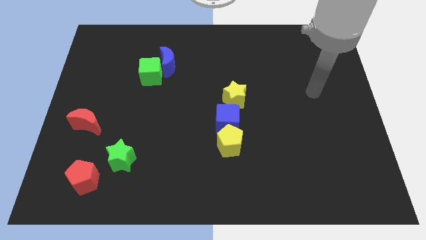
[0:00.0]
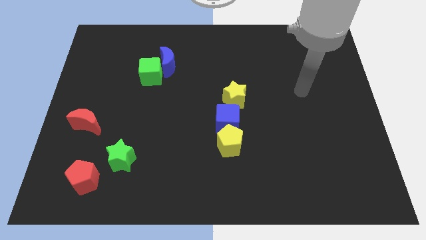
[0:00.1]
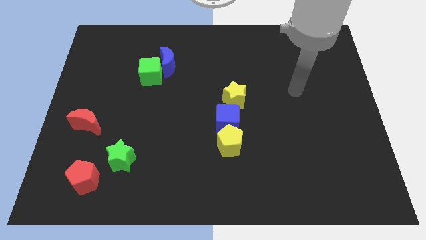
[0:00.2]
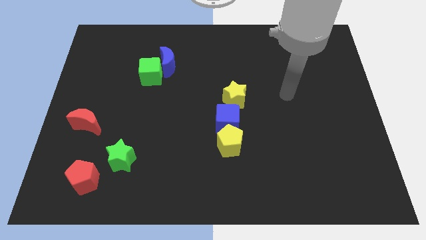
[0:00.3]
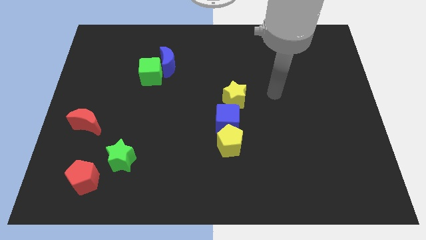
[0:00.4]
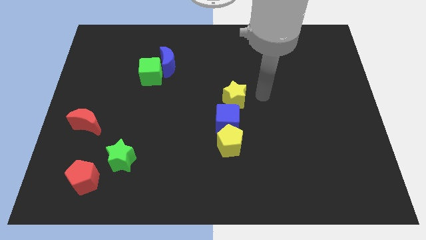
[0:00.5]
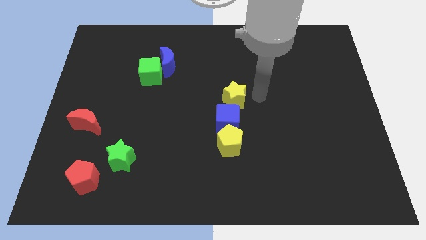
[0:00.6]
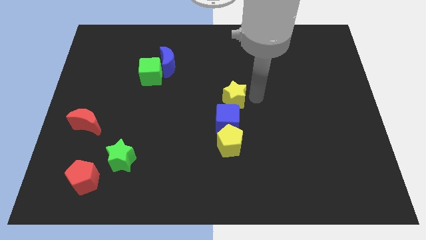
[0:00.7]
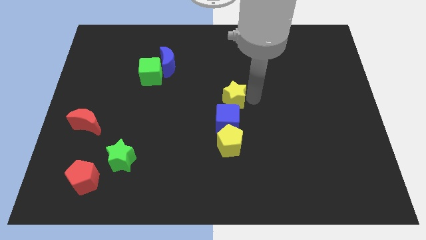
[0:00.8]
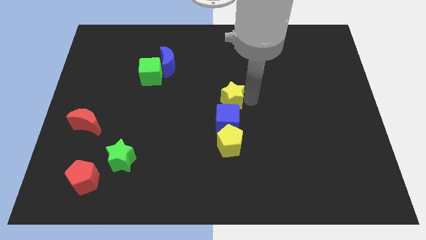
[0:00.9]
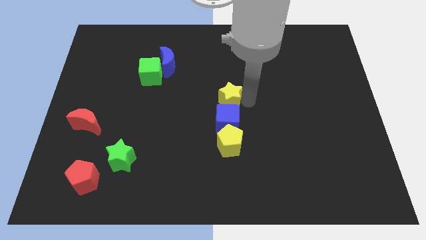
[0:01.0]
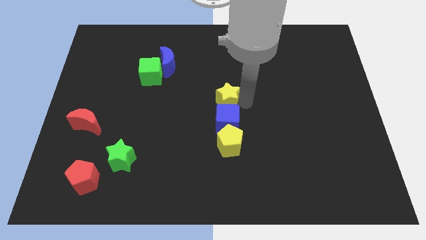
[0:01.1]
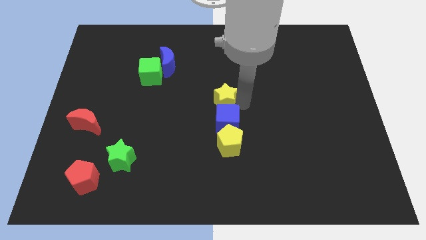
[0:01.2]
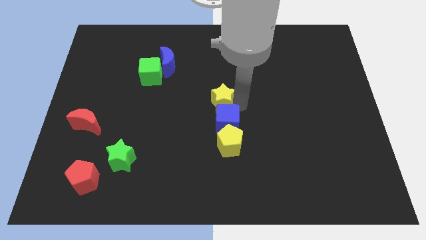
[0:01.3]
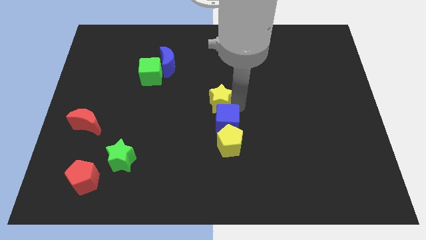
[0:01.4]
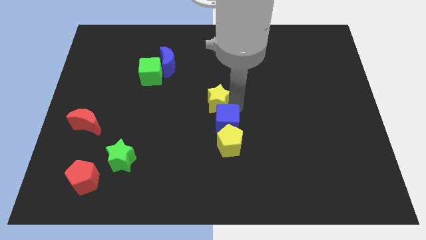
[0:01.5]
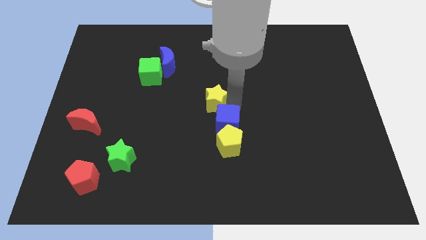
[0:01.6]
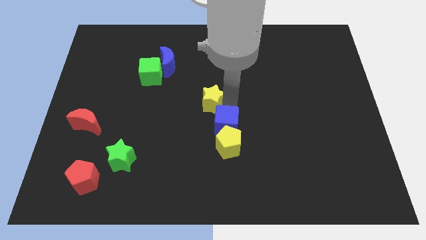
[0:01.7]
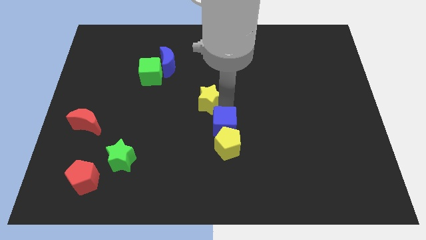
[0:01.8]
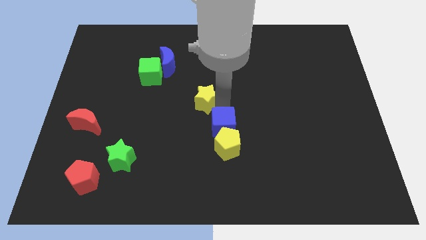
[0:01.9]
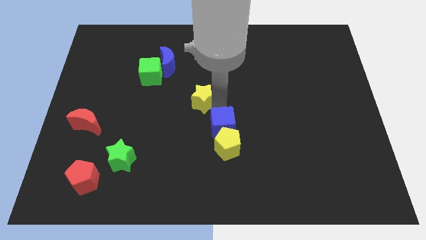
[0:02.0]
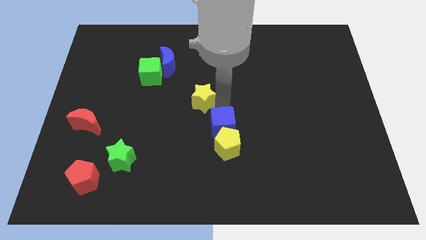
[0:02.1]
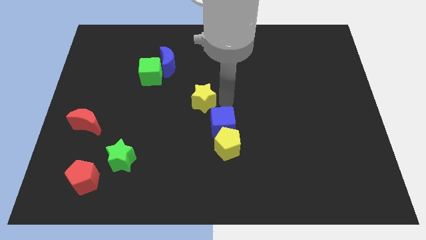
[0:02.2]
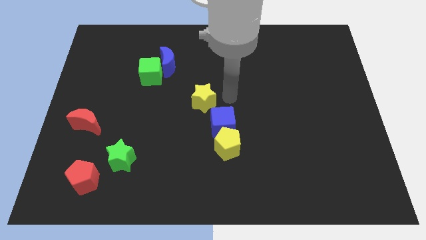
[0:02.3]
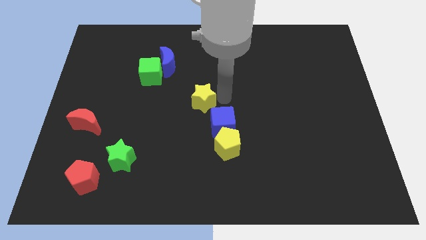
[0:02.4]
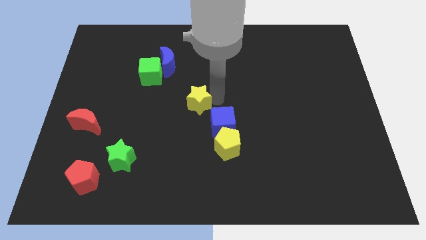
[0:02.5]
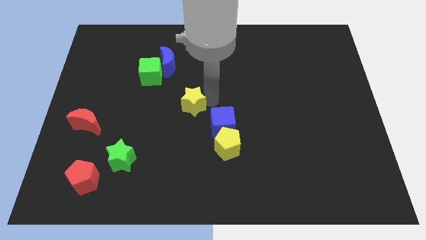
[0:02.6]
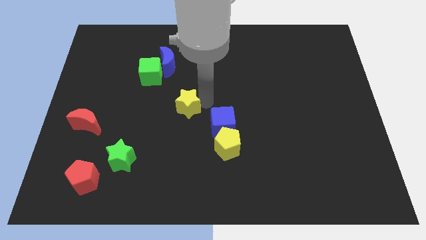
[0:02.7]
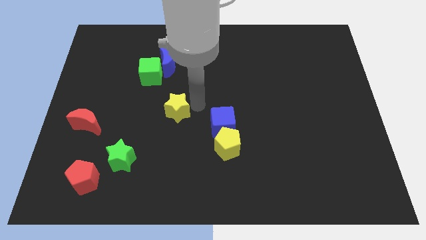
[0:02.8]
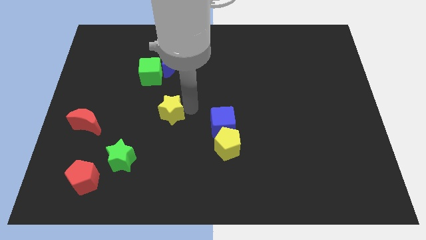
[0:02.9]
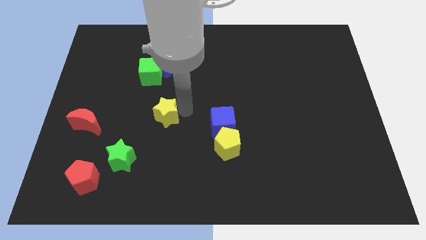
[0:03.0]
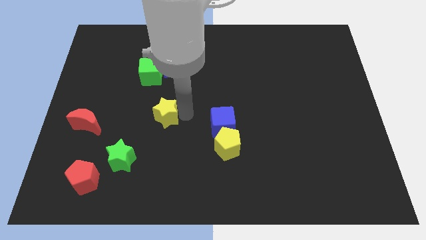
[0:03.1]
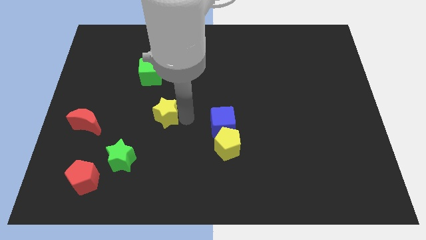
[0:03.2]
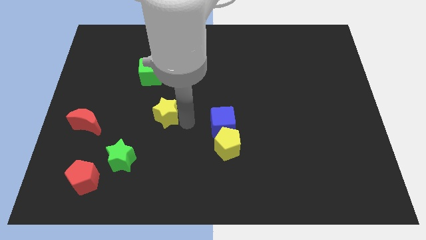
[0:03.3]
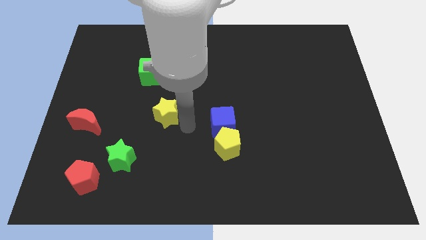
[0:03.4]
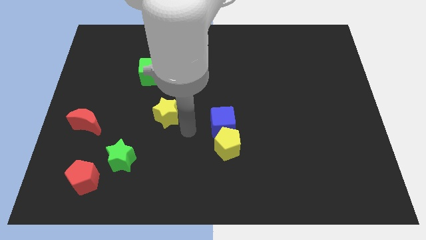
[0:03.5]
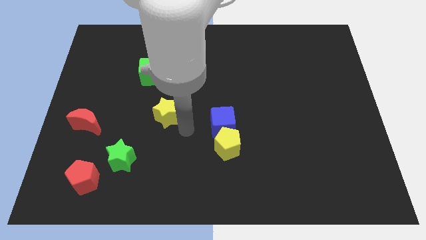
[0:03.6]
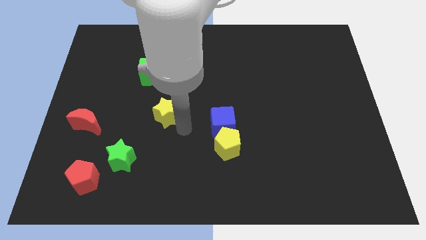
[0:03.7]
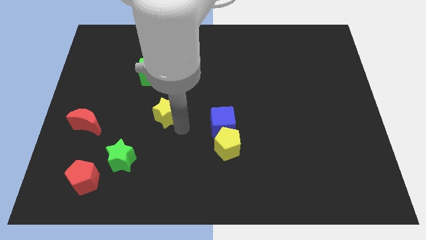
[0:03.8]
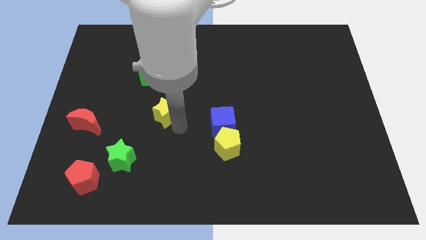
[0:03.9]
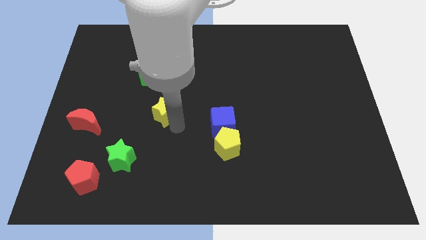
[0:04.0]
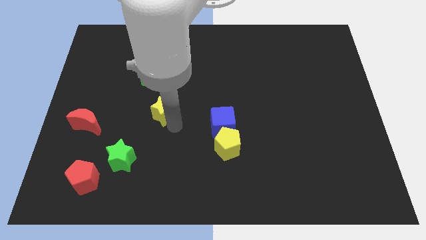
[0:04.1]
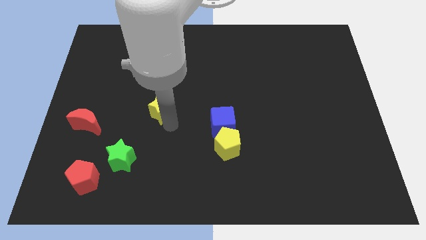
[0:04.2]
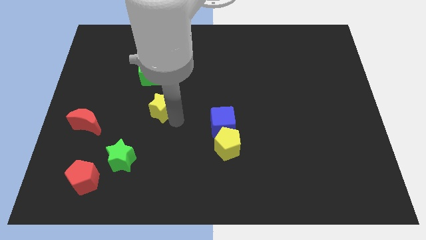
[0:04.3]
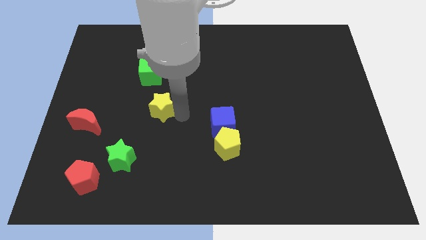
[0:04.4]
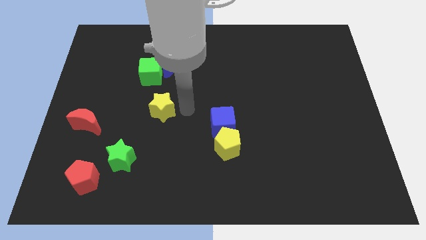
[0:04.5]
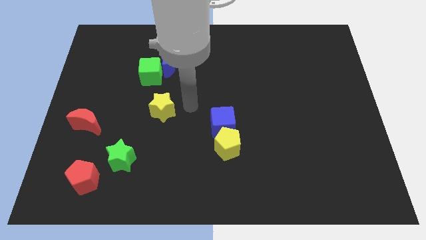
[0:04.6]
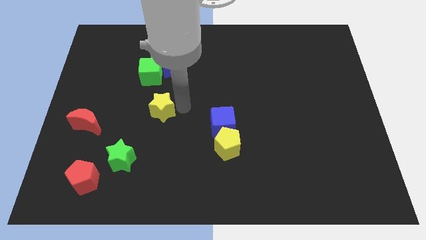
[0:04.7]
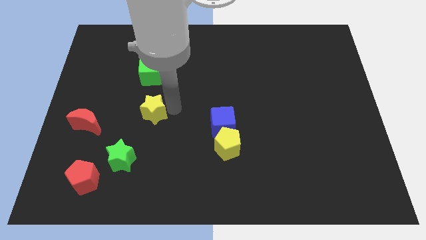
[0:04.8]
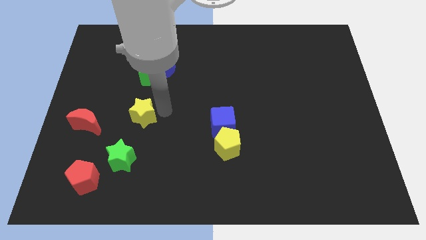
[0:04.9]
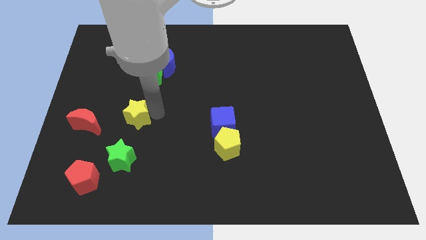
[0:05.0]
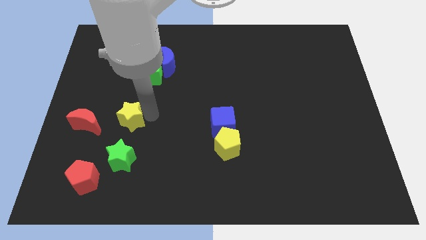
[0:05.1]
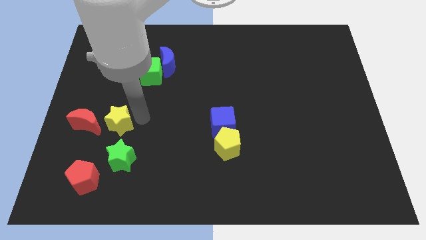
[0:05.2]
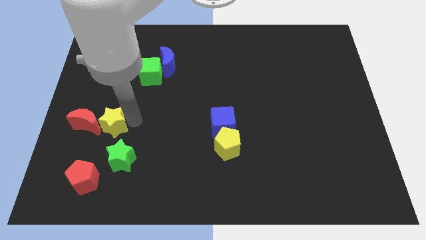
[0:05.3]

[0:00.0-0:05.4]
push the yellow star towards the red moon

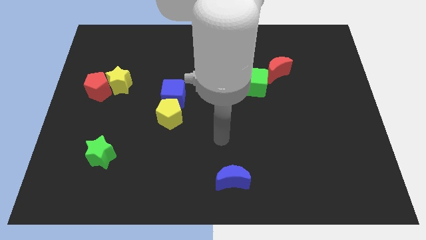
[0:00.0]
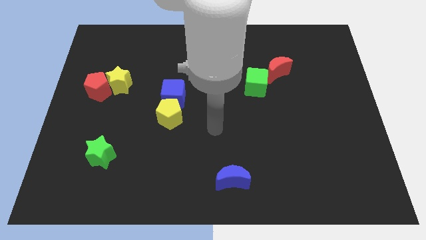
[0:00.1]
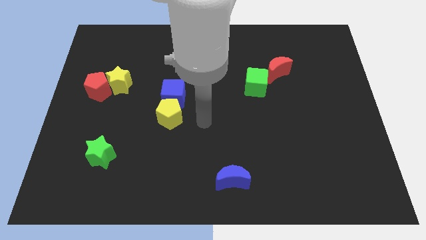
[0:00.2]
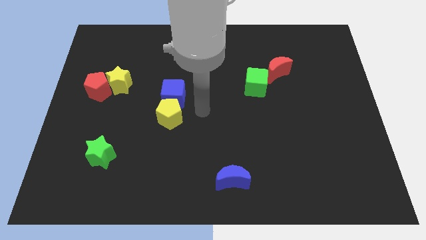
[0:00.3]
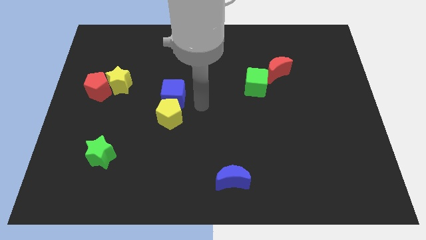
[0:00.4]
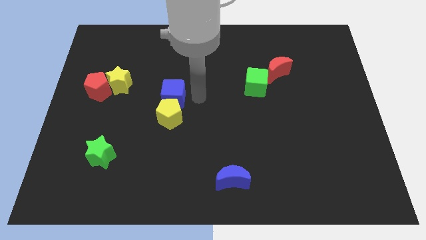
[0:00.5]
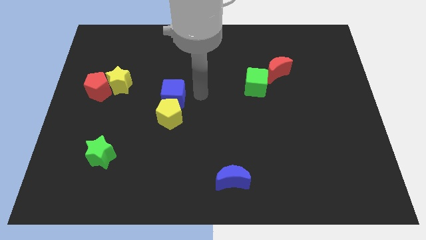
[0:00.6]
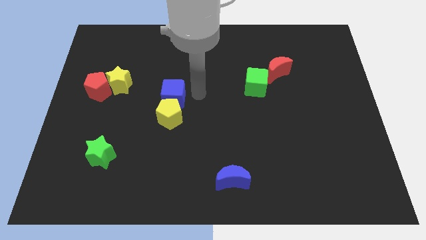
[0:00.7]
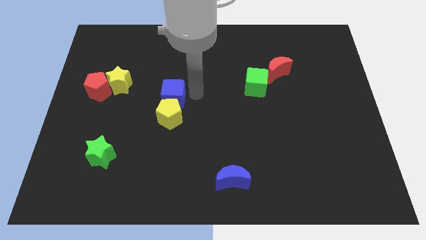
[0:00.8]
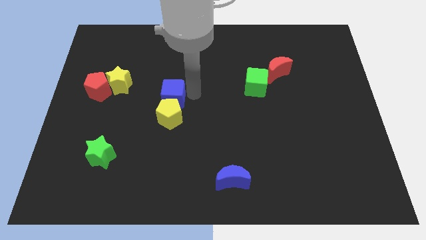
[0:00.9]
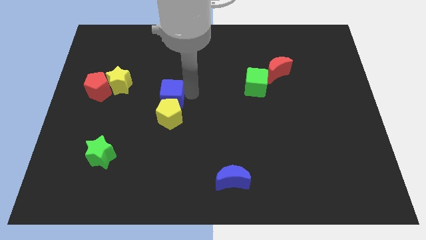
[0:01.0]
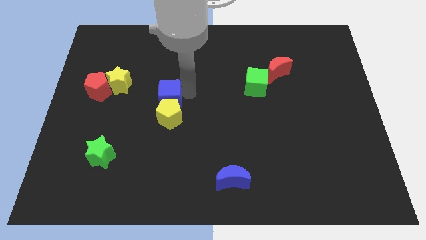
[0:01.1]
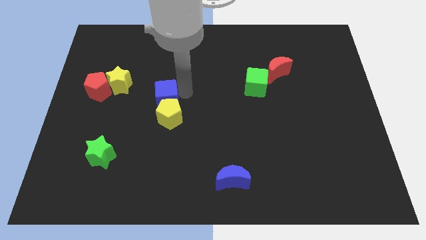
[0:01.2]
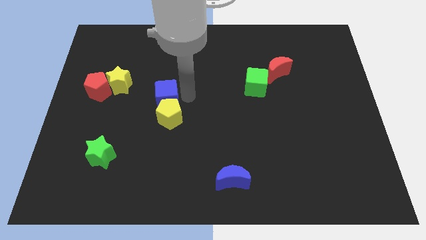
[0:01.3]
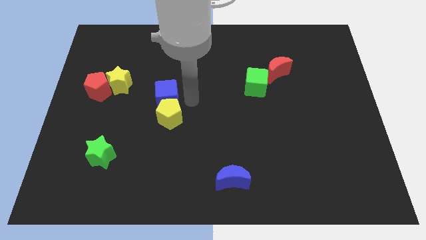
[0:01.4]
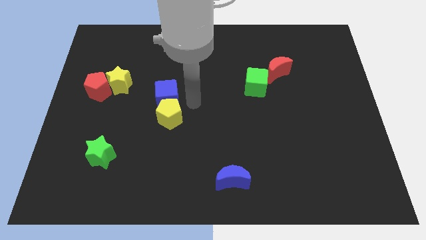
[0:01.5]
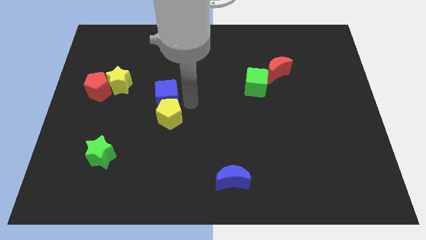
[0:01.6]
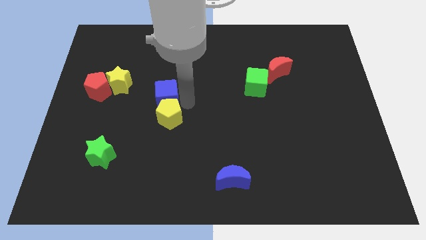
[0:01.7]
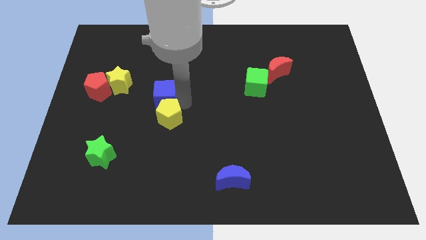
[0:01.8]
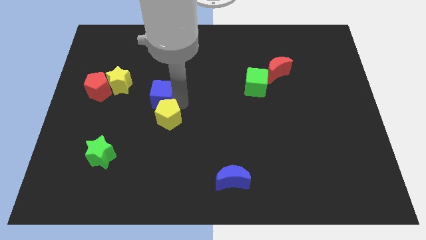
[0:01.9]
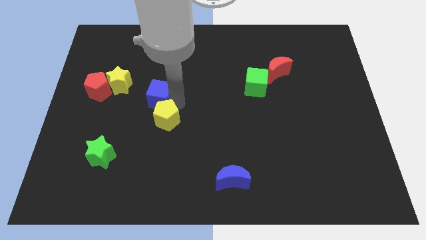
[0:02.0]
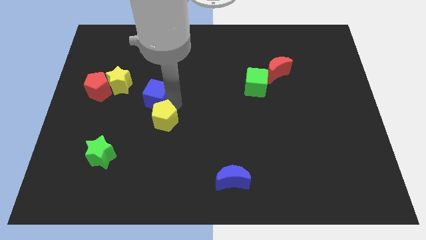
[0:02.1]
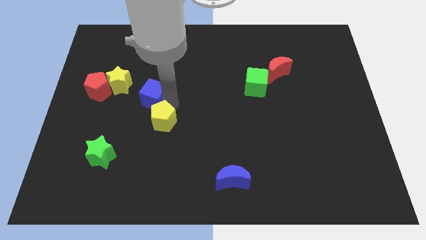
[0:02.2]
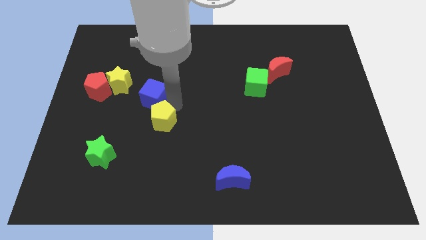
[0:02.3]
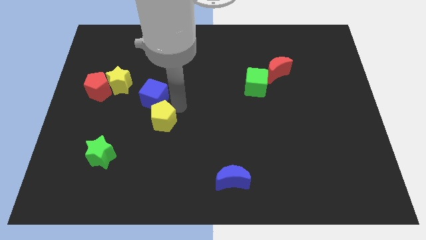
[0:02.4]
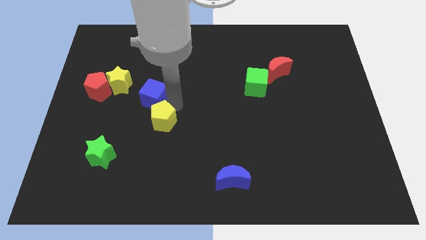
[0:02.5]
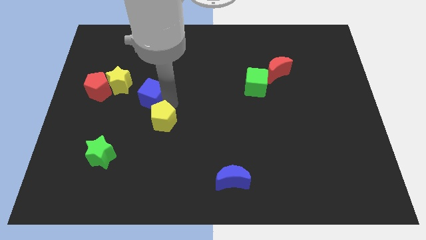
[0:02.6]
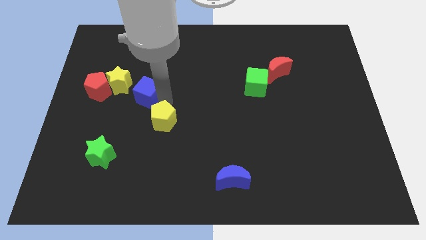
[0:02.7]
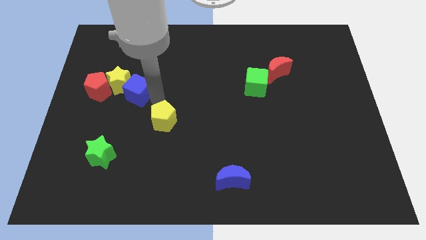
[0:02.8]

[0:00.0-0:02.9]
slide the blue cube close to the yellow star
